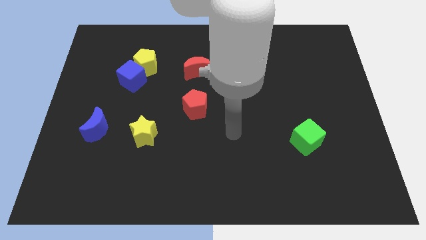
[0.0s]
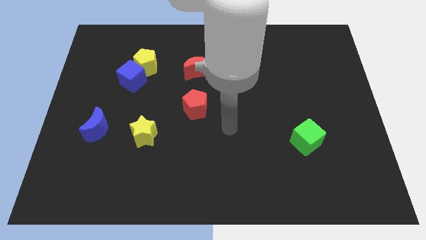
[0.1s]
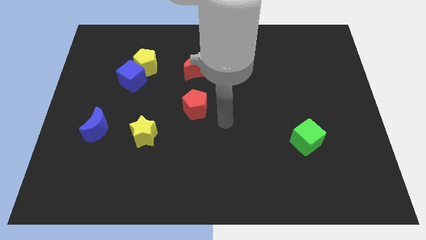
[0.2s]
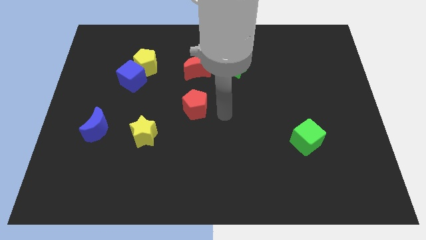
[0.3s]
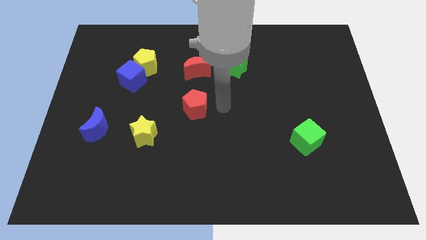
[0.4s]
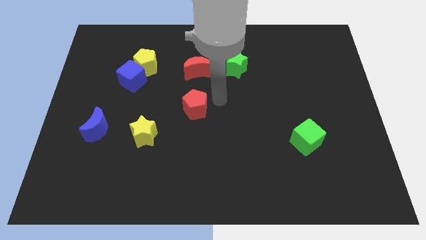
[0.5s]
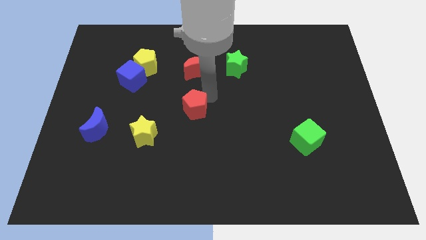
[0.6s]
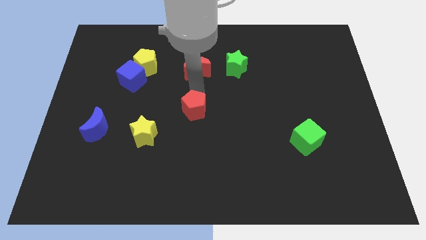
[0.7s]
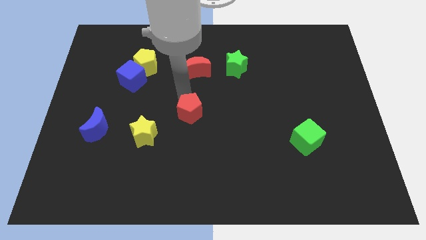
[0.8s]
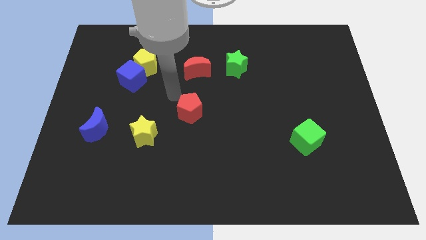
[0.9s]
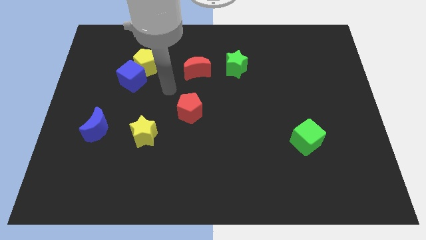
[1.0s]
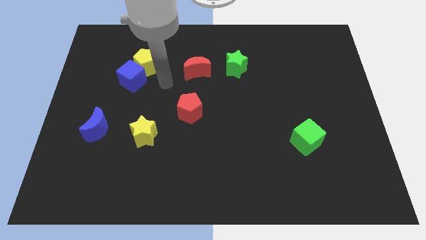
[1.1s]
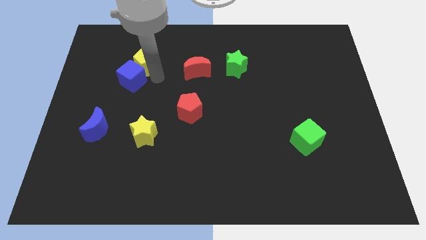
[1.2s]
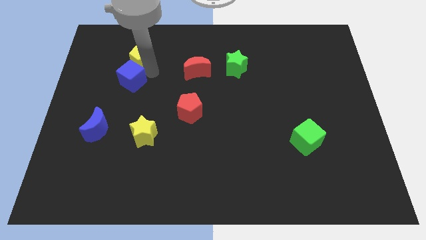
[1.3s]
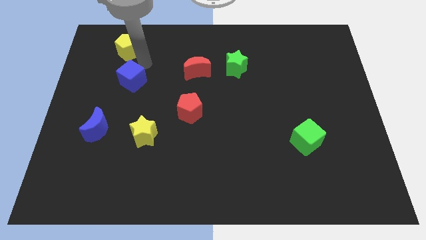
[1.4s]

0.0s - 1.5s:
move the blue cube away from the yellow pentagon

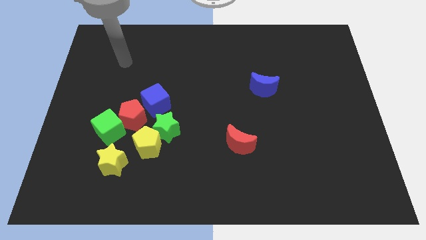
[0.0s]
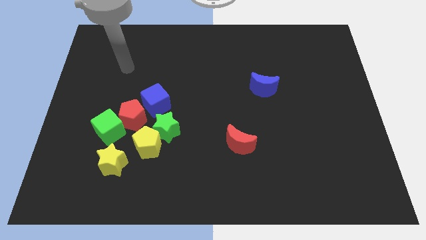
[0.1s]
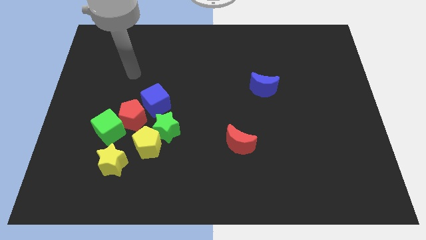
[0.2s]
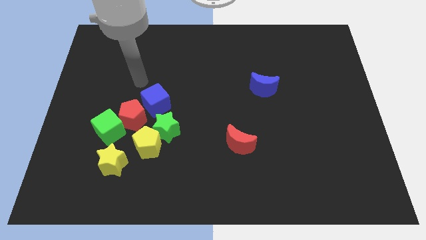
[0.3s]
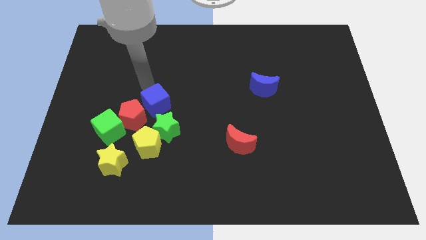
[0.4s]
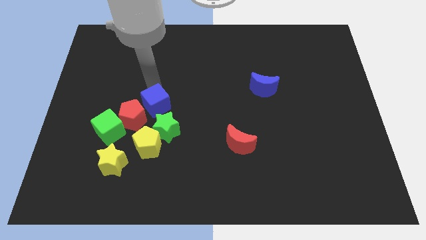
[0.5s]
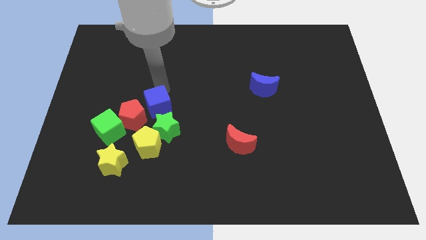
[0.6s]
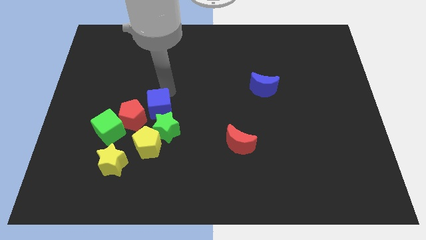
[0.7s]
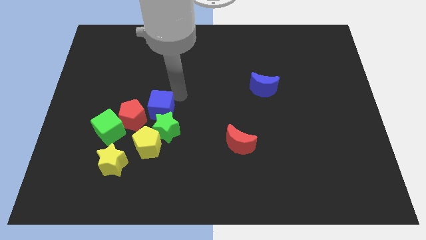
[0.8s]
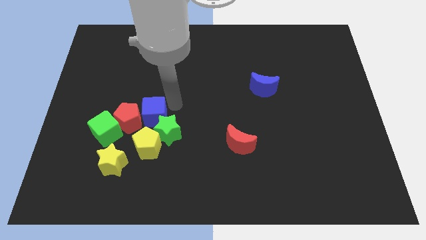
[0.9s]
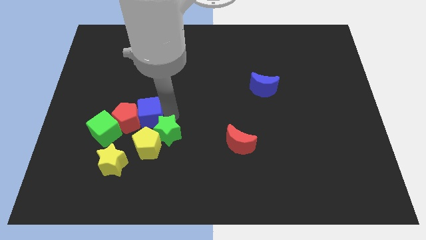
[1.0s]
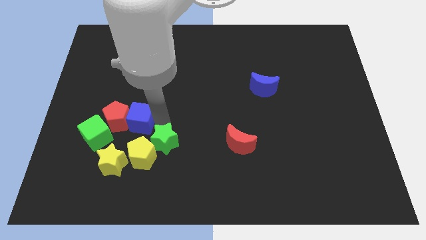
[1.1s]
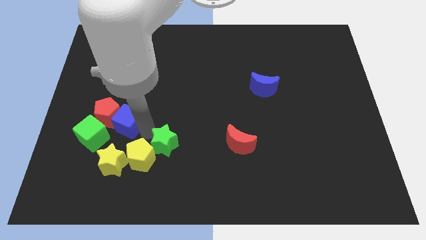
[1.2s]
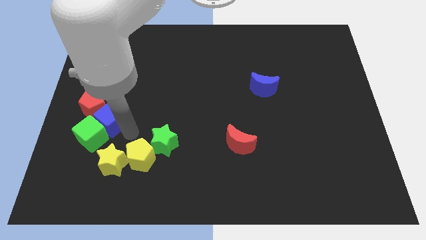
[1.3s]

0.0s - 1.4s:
pull the red pentagon apart from the group

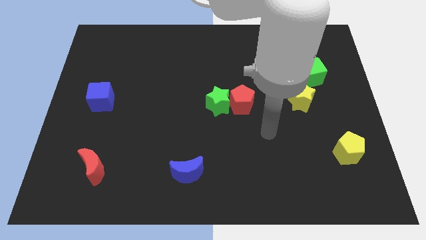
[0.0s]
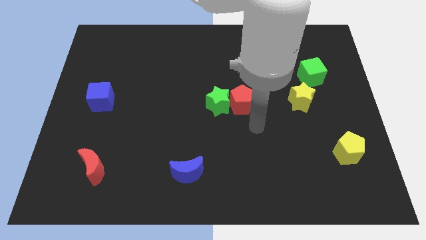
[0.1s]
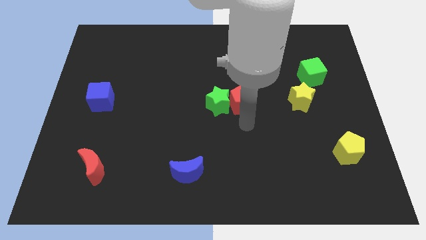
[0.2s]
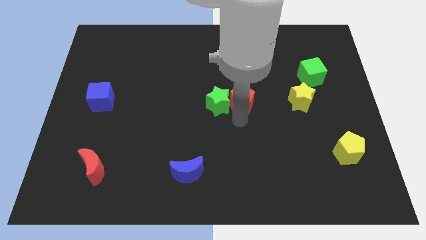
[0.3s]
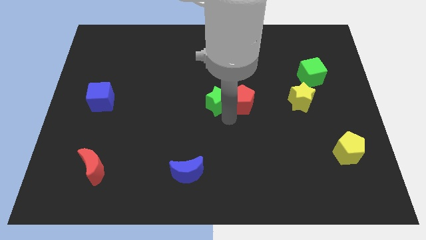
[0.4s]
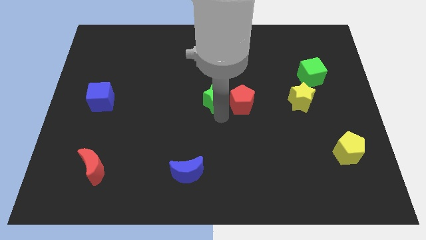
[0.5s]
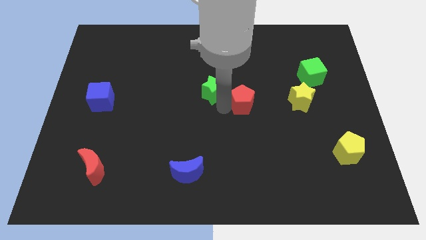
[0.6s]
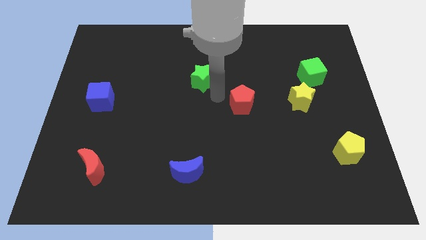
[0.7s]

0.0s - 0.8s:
separate the red pentagon from the green star

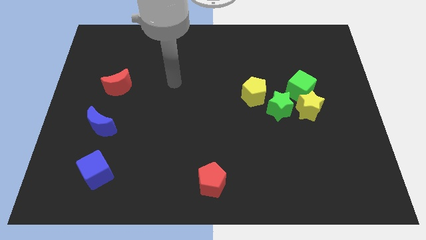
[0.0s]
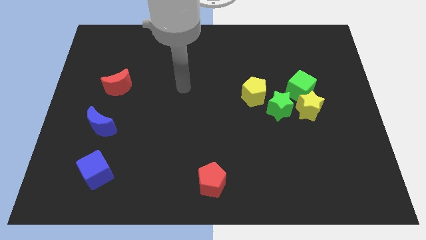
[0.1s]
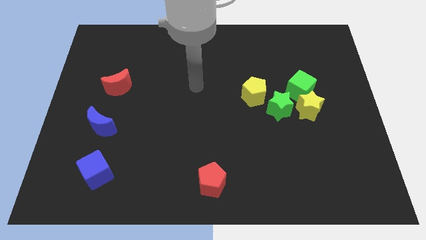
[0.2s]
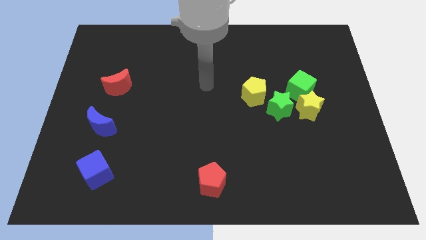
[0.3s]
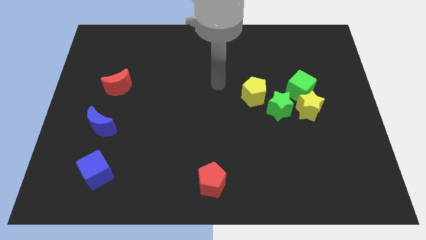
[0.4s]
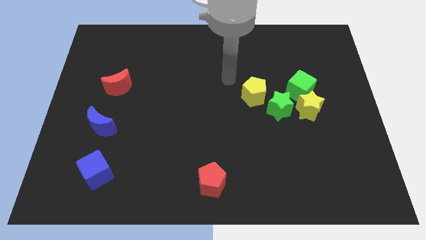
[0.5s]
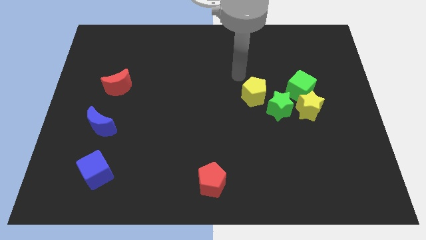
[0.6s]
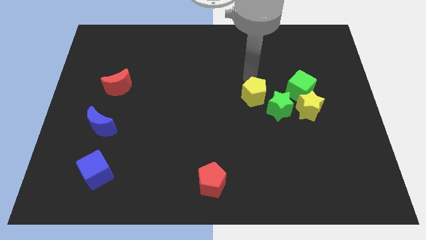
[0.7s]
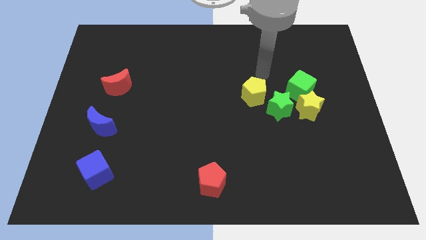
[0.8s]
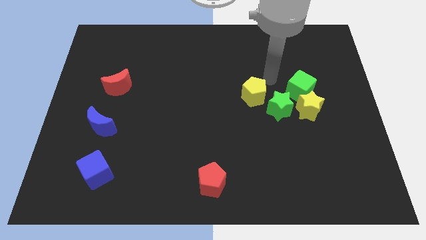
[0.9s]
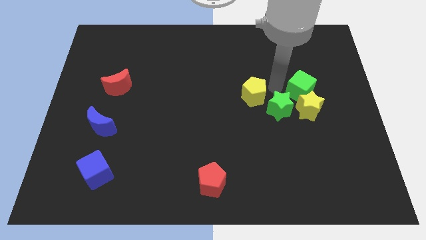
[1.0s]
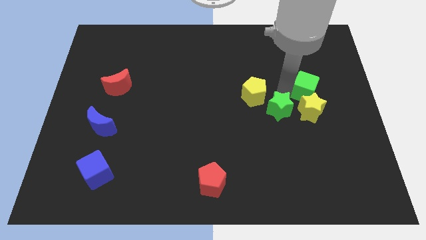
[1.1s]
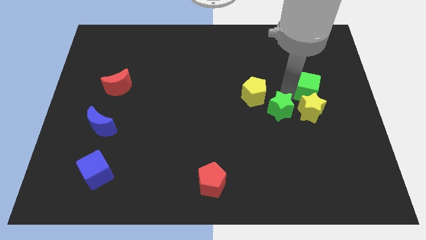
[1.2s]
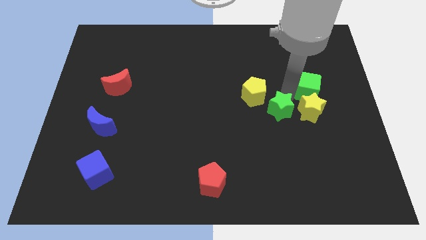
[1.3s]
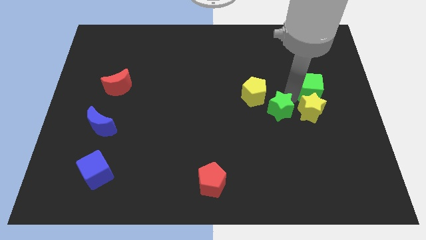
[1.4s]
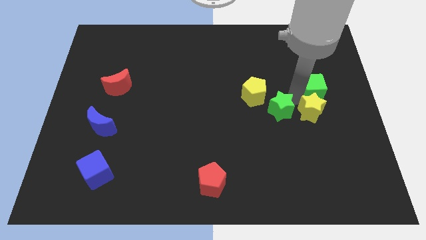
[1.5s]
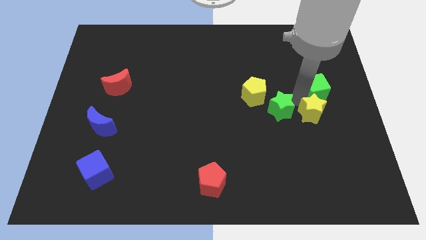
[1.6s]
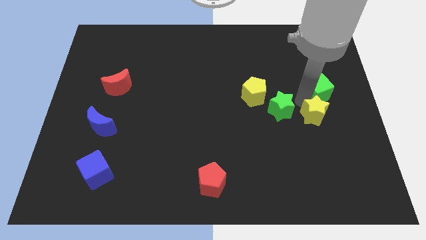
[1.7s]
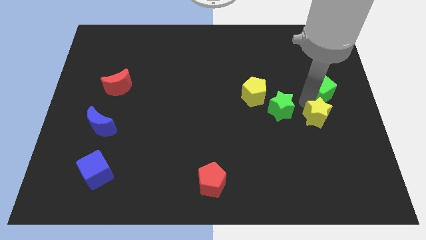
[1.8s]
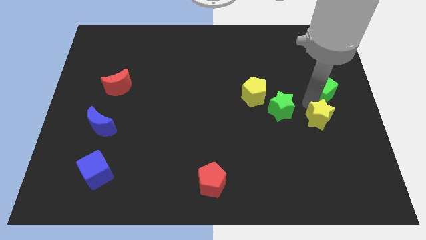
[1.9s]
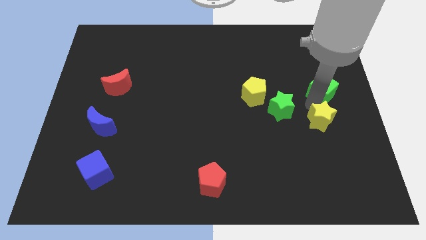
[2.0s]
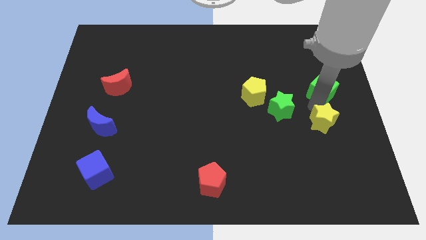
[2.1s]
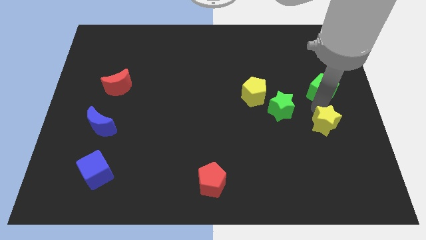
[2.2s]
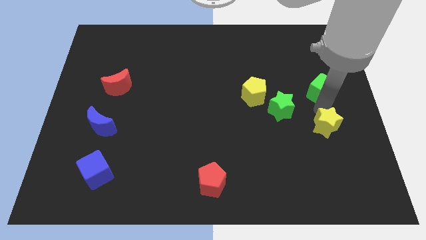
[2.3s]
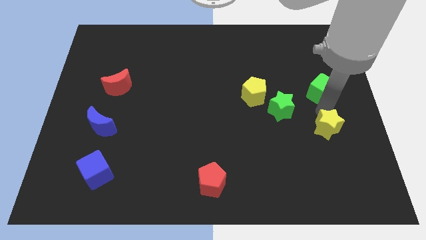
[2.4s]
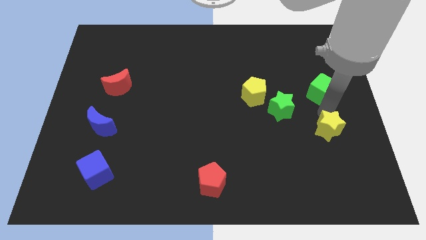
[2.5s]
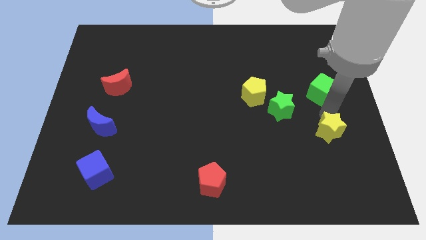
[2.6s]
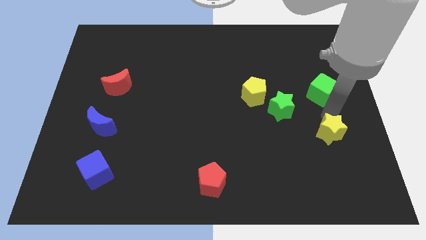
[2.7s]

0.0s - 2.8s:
separate the yellow star from the green cube and green star

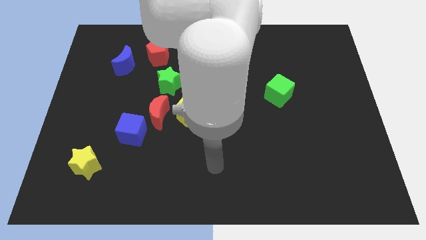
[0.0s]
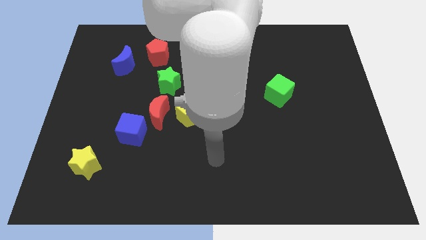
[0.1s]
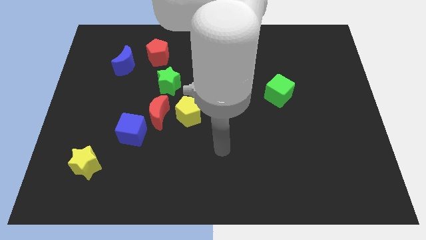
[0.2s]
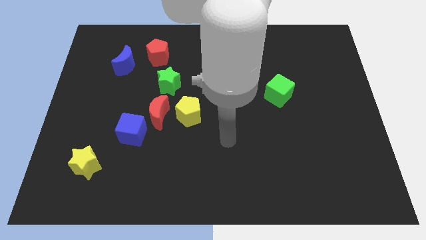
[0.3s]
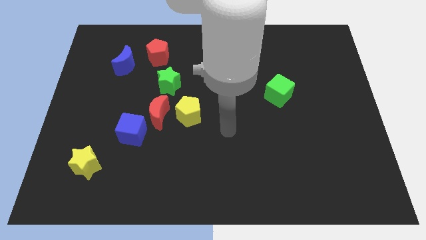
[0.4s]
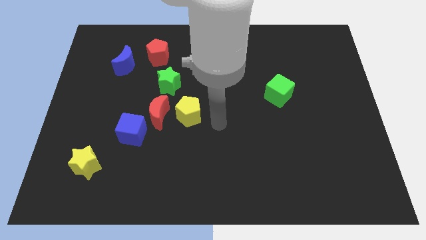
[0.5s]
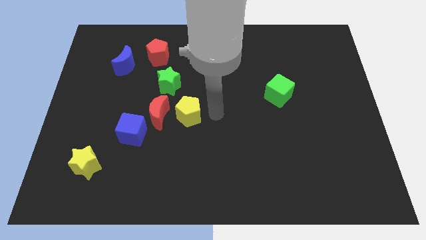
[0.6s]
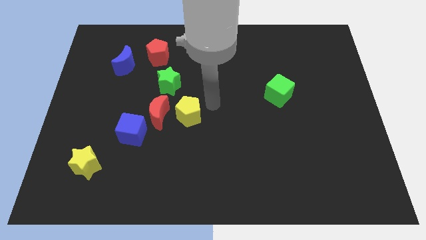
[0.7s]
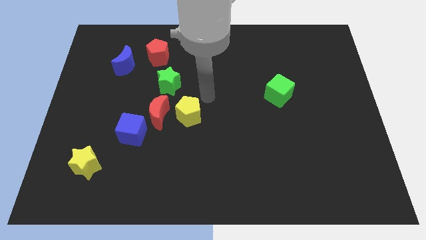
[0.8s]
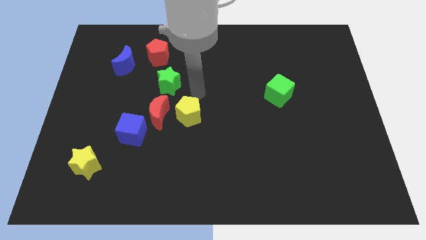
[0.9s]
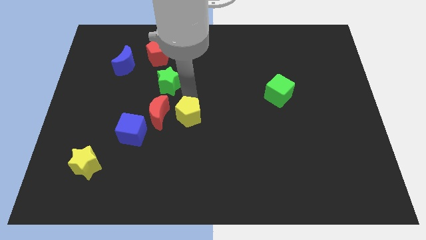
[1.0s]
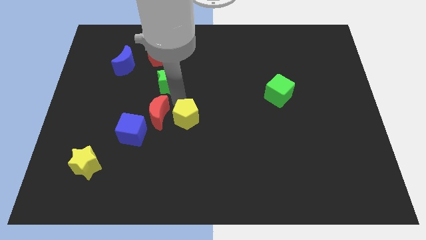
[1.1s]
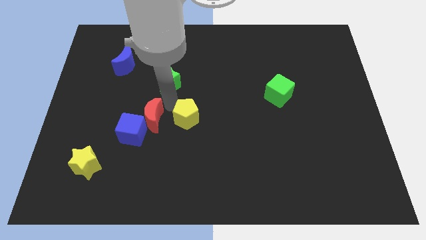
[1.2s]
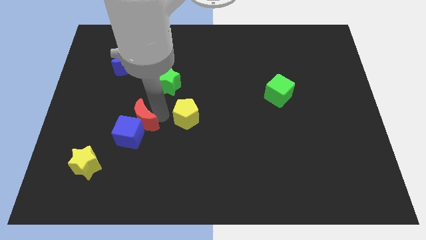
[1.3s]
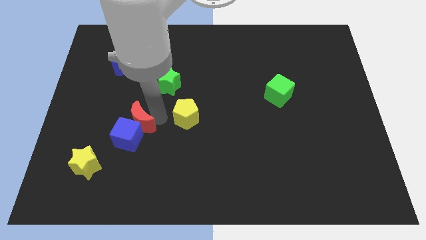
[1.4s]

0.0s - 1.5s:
pull the yellow pentagon apart from the red moon

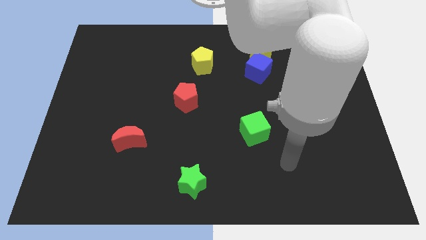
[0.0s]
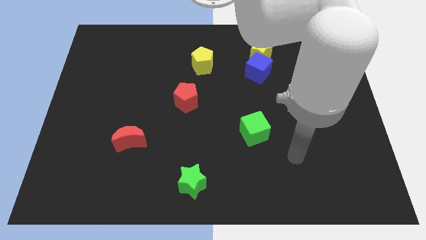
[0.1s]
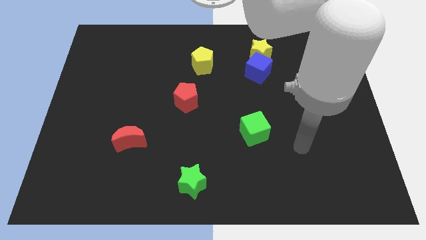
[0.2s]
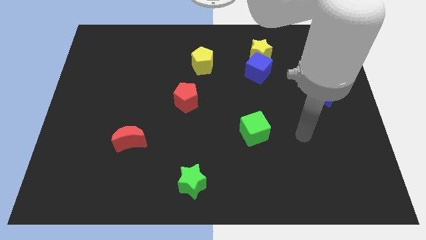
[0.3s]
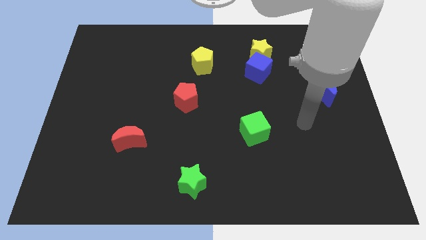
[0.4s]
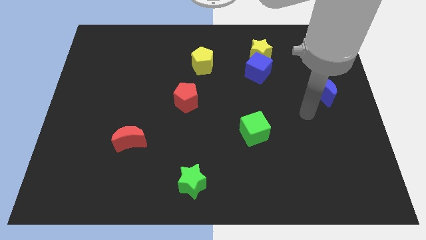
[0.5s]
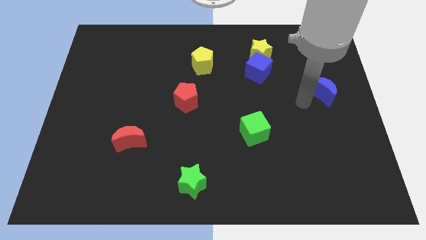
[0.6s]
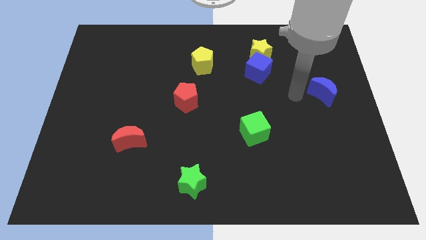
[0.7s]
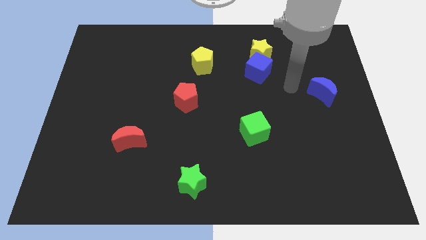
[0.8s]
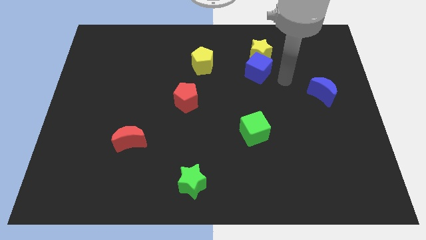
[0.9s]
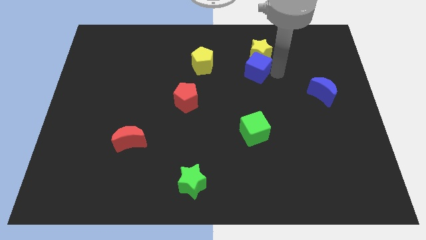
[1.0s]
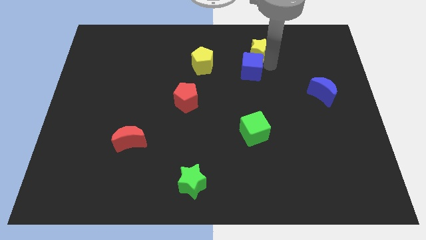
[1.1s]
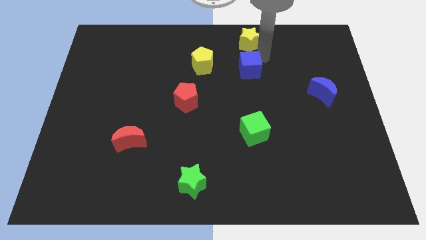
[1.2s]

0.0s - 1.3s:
separate the blue cube from the yellow star
